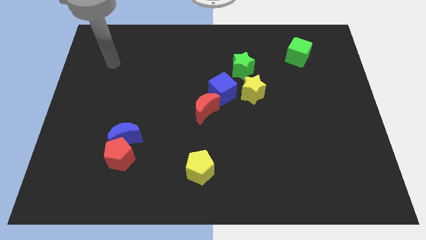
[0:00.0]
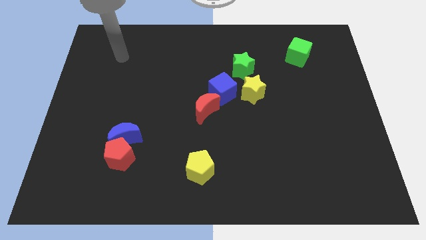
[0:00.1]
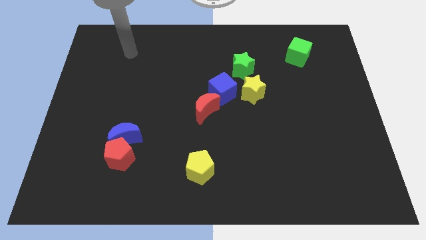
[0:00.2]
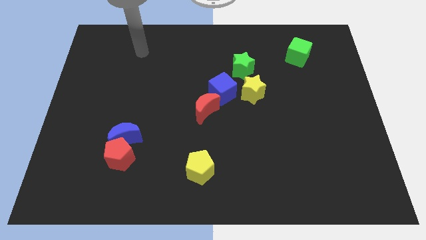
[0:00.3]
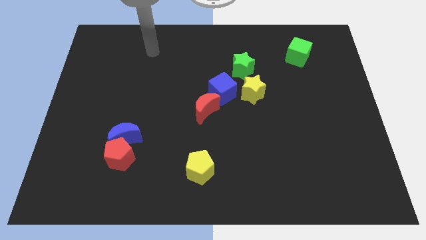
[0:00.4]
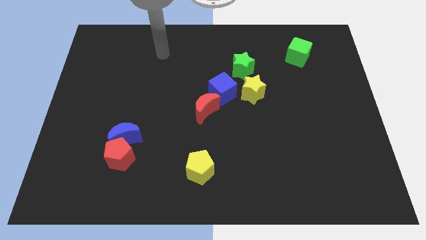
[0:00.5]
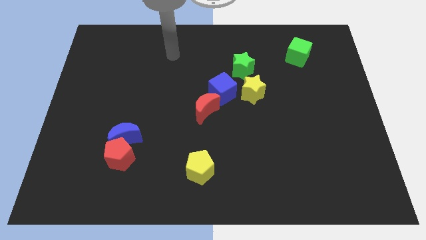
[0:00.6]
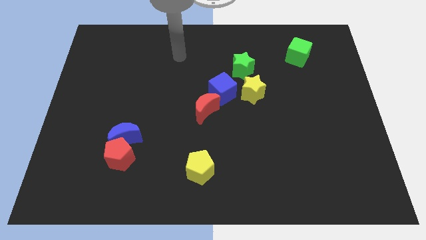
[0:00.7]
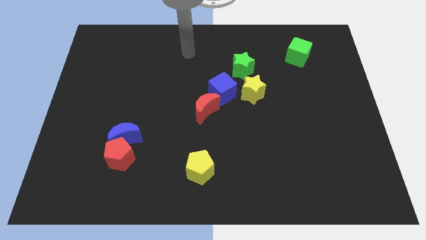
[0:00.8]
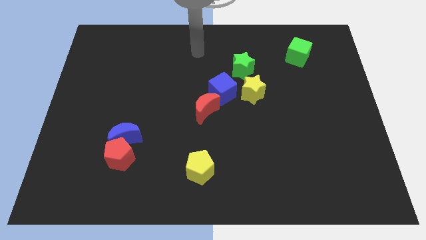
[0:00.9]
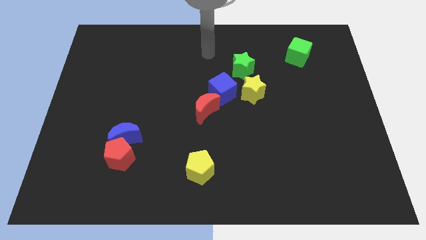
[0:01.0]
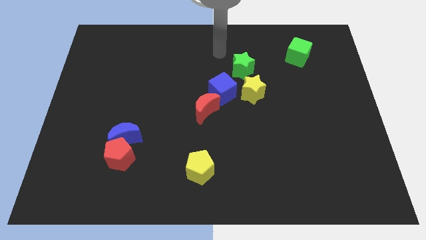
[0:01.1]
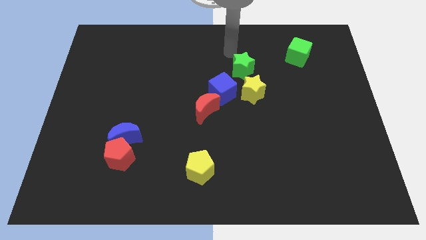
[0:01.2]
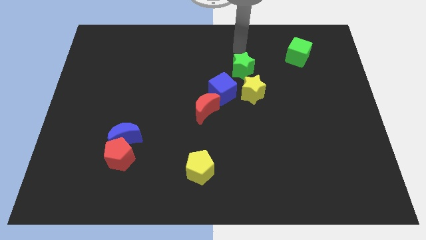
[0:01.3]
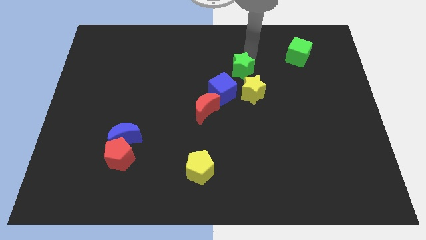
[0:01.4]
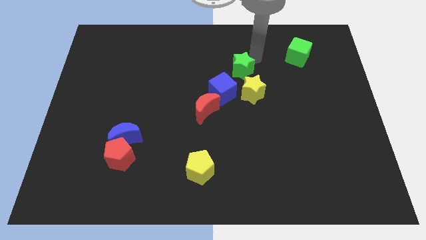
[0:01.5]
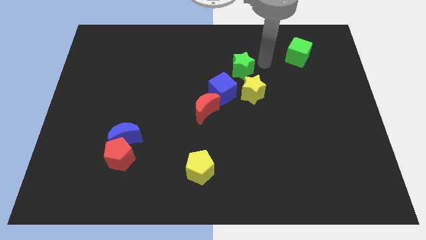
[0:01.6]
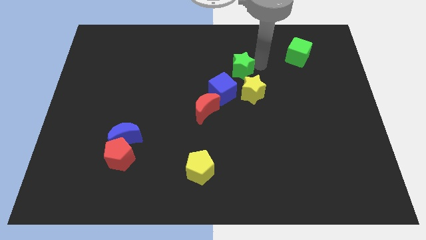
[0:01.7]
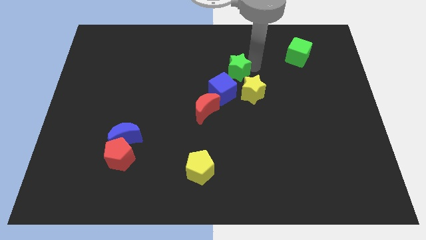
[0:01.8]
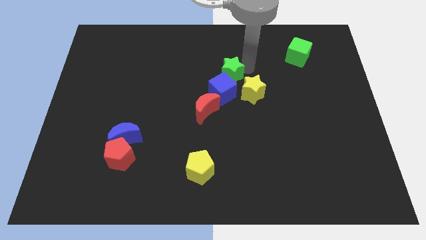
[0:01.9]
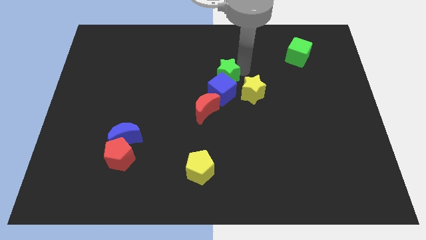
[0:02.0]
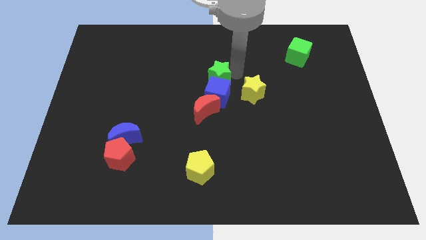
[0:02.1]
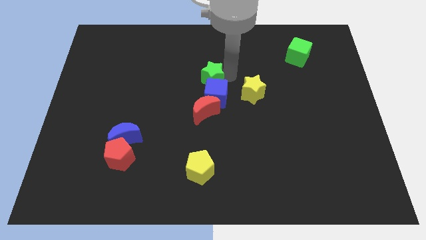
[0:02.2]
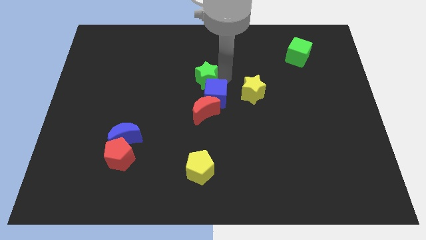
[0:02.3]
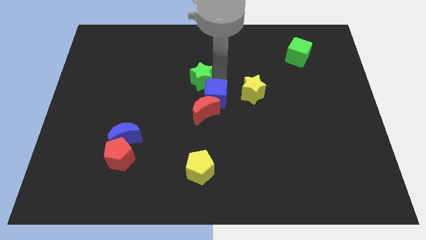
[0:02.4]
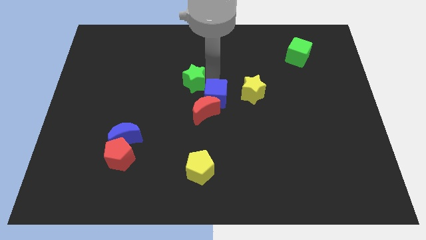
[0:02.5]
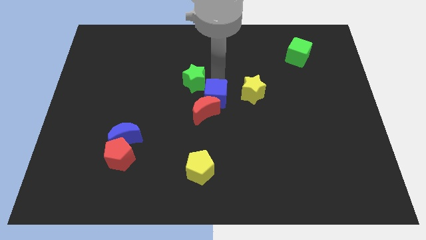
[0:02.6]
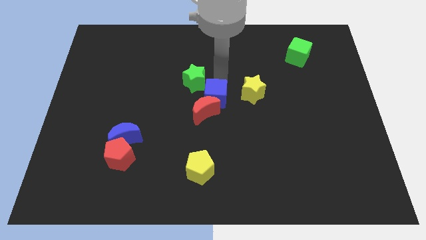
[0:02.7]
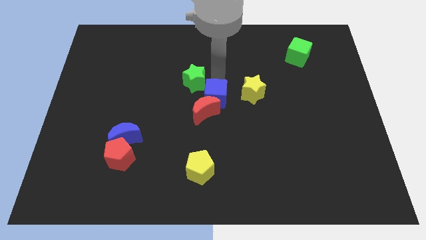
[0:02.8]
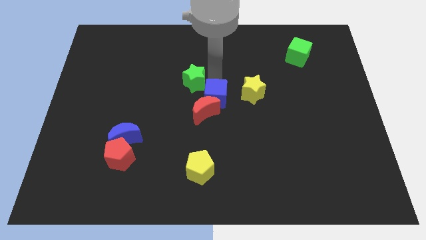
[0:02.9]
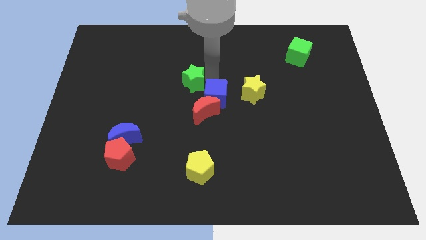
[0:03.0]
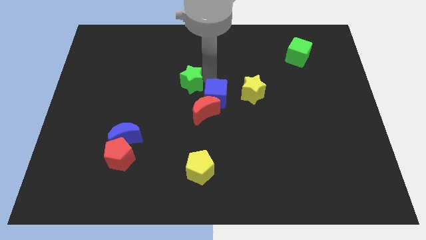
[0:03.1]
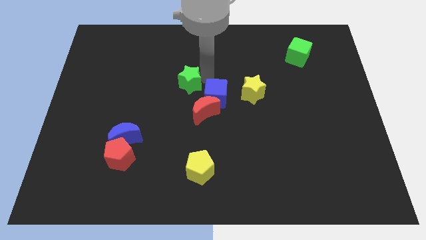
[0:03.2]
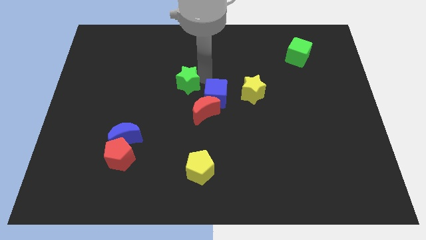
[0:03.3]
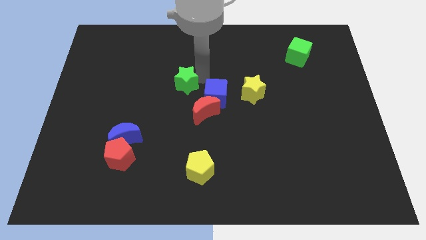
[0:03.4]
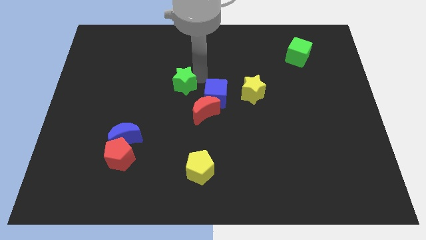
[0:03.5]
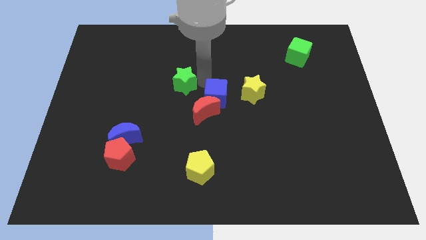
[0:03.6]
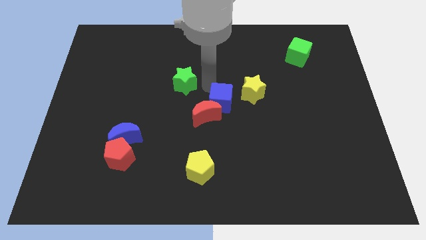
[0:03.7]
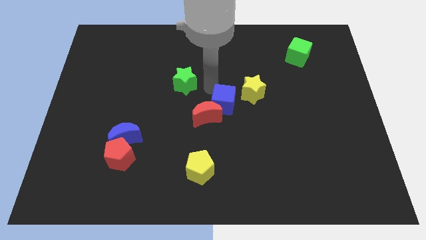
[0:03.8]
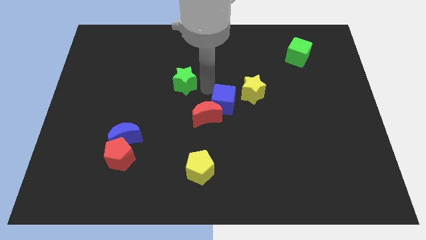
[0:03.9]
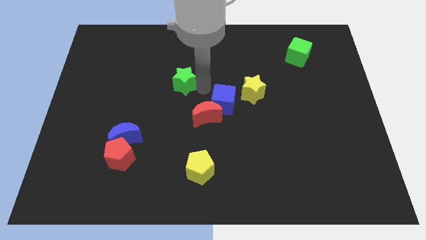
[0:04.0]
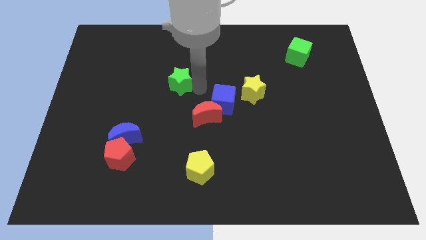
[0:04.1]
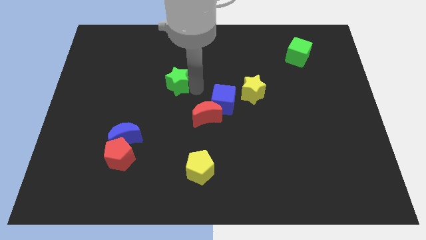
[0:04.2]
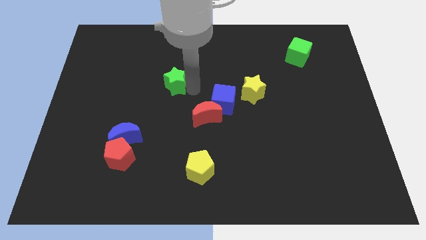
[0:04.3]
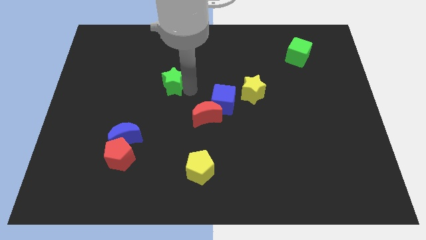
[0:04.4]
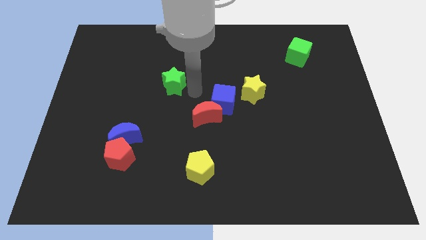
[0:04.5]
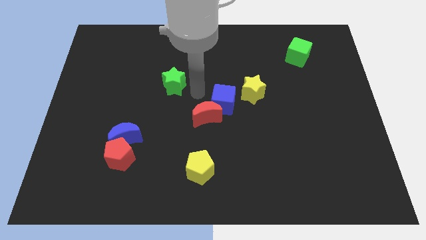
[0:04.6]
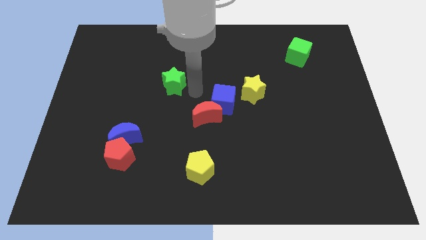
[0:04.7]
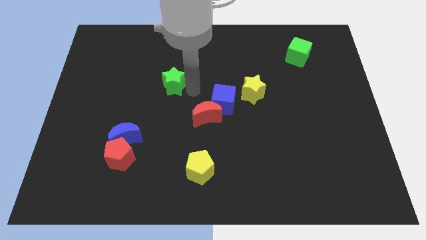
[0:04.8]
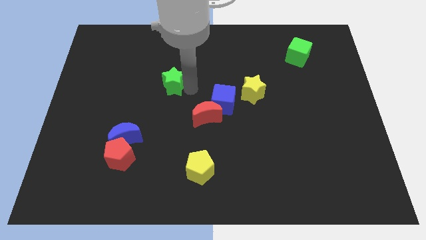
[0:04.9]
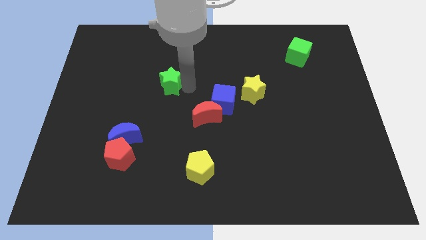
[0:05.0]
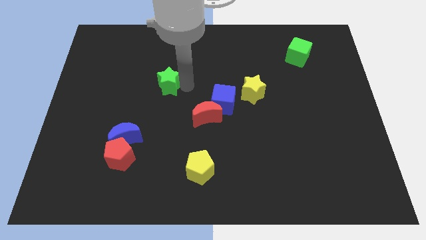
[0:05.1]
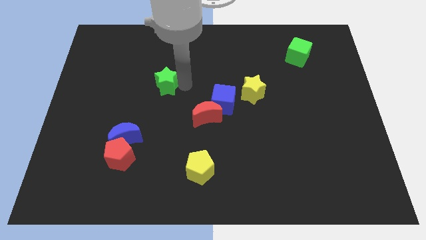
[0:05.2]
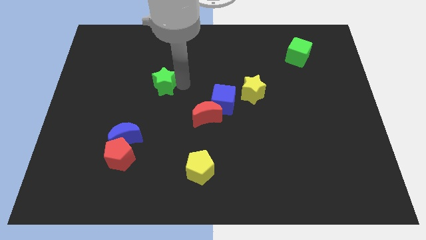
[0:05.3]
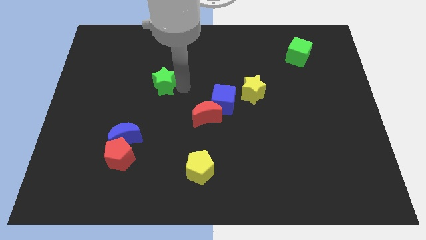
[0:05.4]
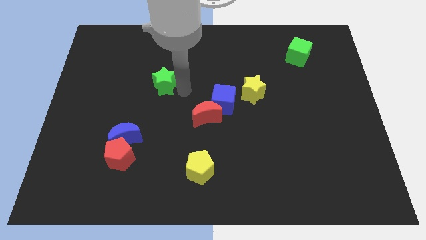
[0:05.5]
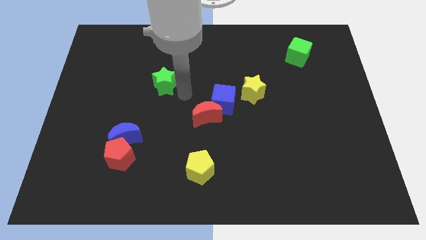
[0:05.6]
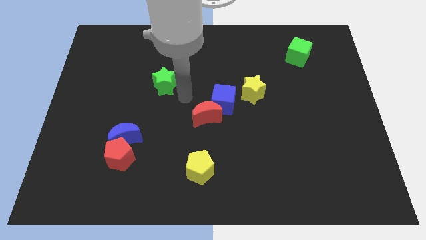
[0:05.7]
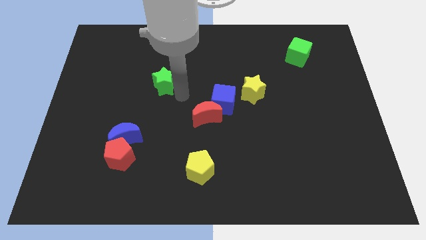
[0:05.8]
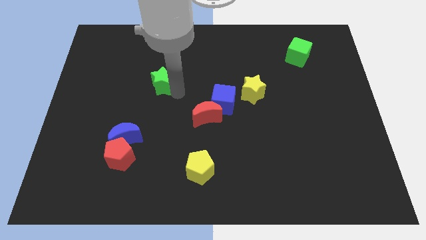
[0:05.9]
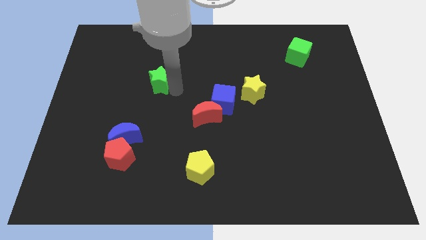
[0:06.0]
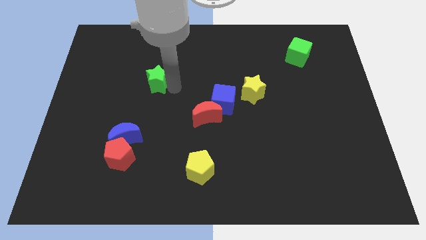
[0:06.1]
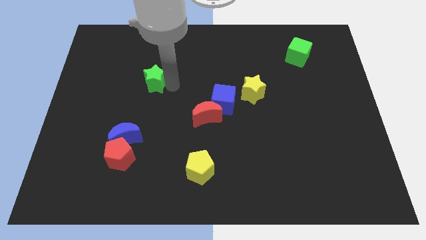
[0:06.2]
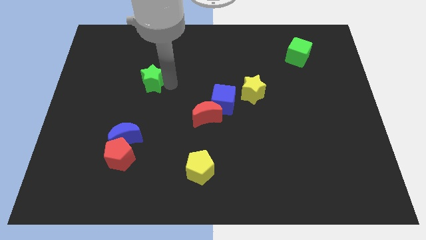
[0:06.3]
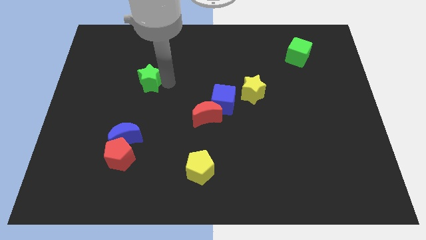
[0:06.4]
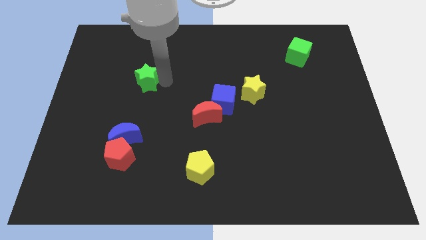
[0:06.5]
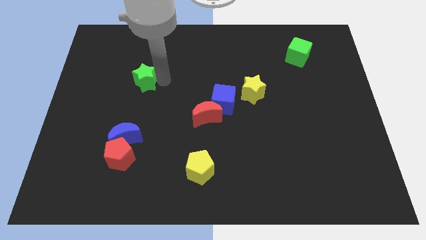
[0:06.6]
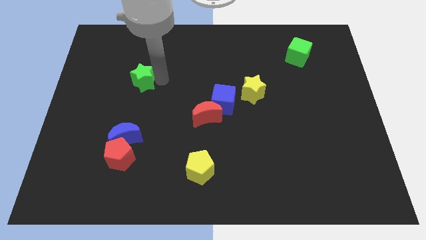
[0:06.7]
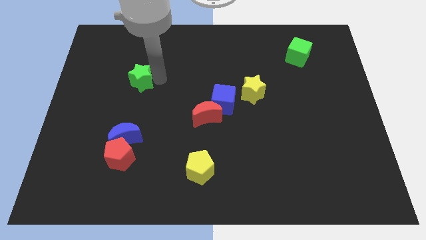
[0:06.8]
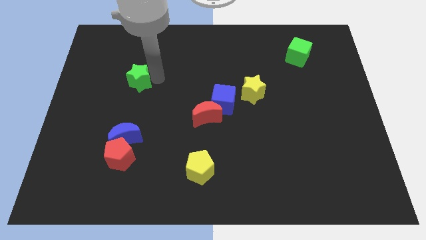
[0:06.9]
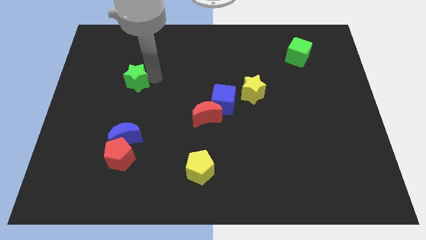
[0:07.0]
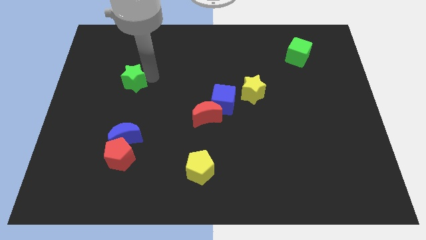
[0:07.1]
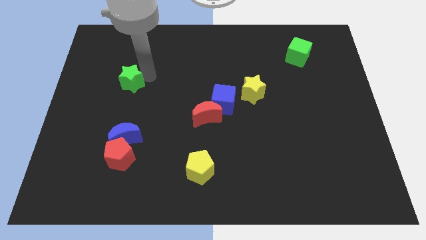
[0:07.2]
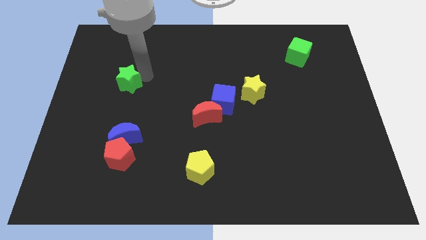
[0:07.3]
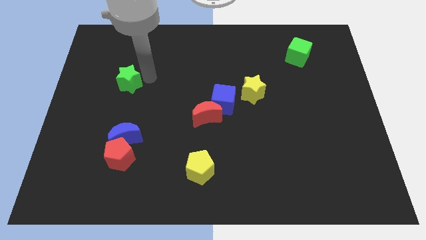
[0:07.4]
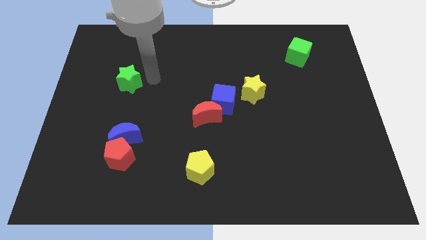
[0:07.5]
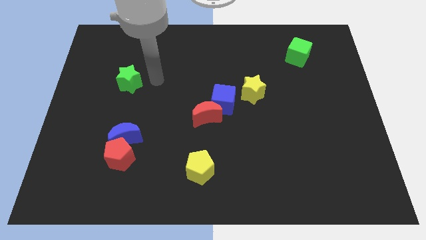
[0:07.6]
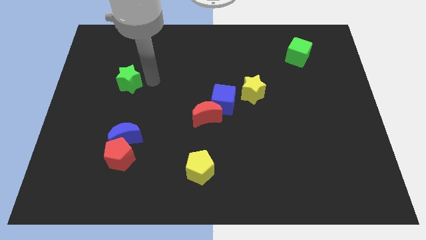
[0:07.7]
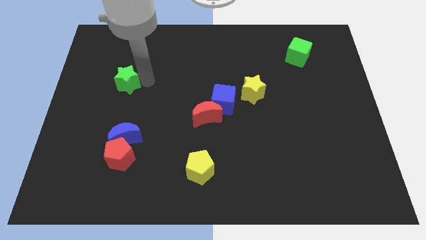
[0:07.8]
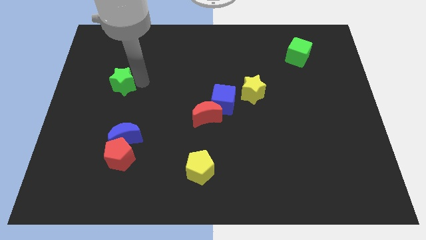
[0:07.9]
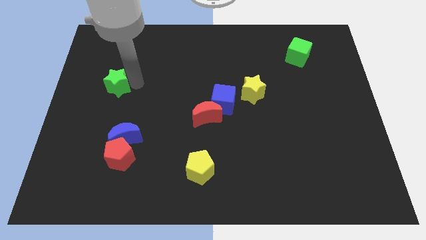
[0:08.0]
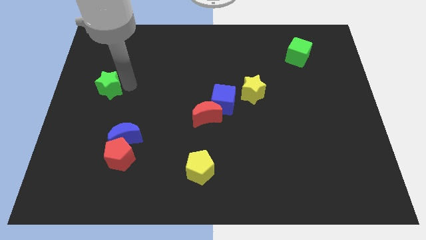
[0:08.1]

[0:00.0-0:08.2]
push the green star to the left side of the board
